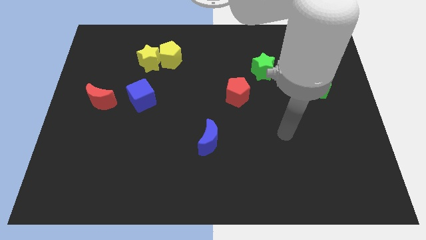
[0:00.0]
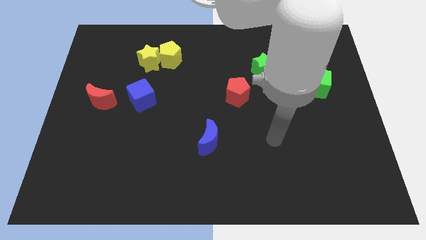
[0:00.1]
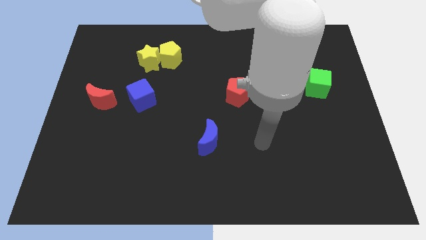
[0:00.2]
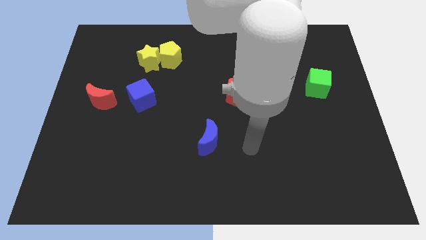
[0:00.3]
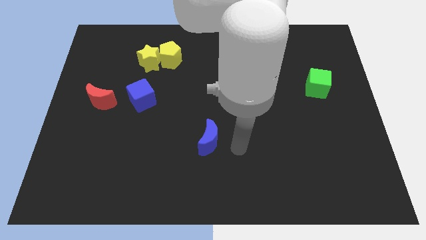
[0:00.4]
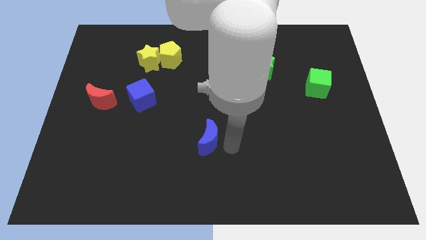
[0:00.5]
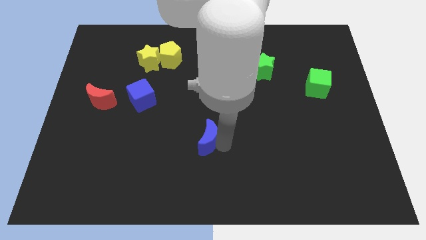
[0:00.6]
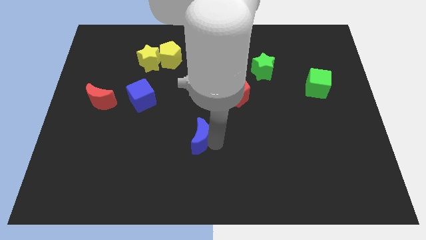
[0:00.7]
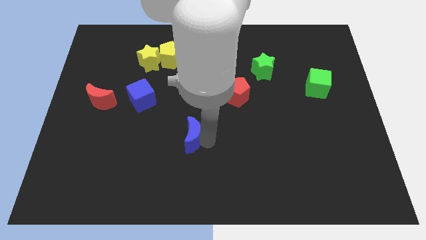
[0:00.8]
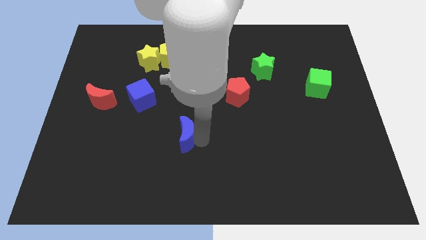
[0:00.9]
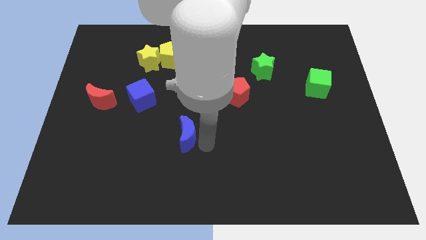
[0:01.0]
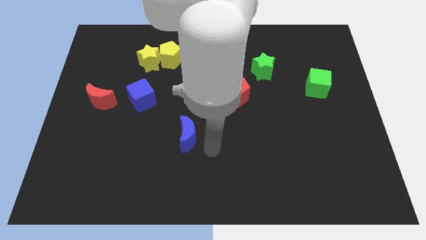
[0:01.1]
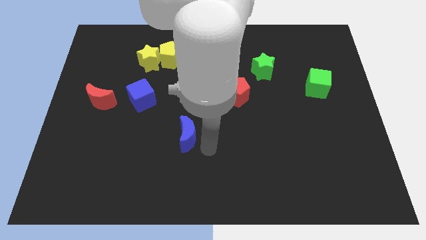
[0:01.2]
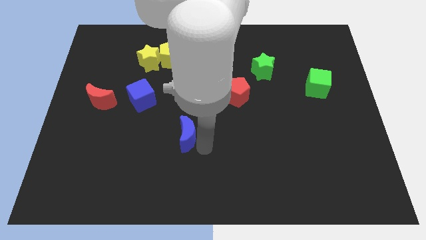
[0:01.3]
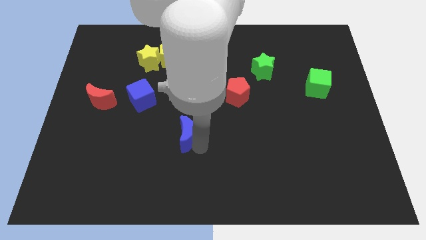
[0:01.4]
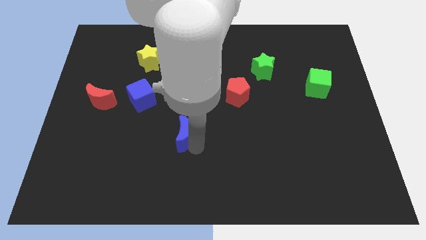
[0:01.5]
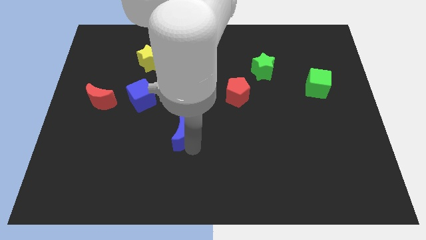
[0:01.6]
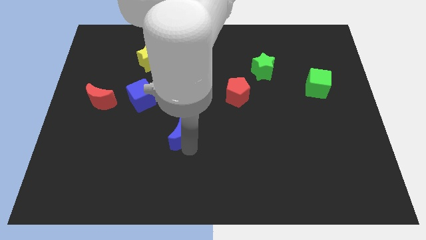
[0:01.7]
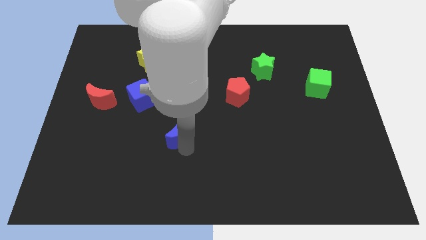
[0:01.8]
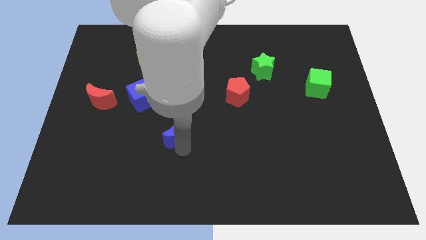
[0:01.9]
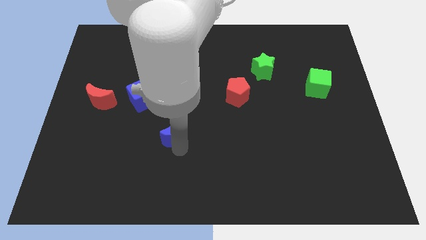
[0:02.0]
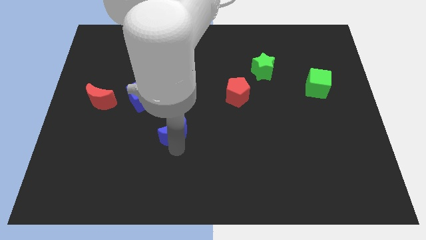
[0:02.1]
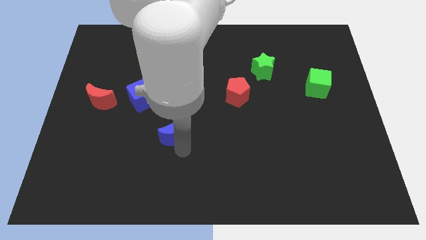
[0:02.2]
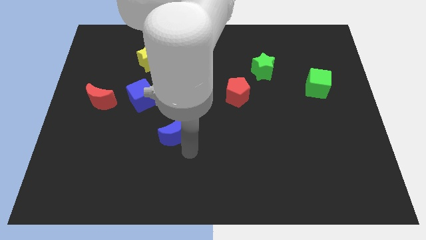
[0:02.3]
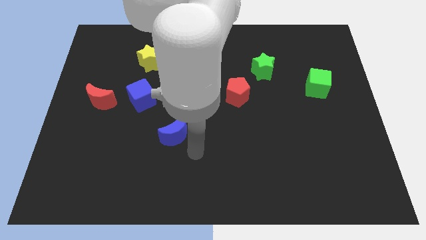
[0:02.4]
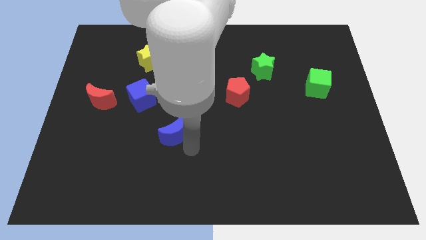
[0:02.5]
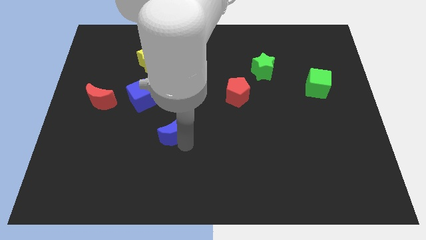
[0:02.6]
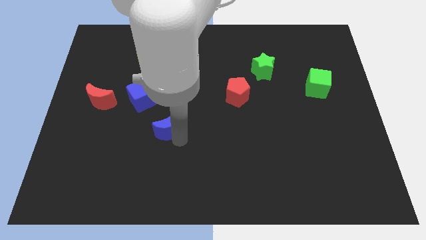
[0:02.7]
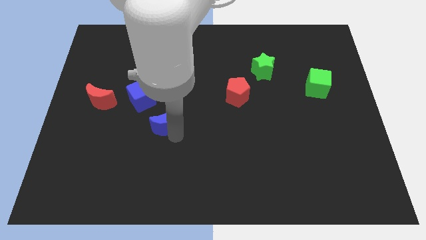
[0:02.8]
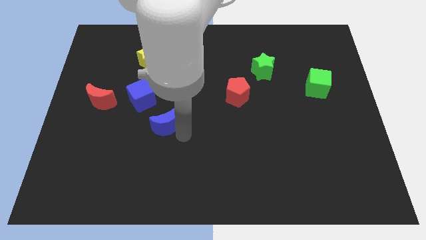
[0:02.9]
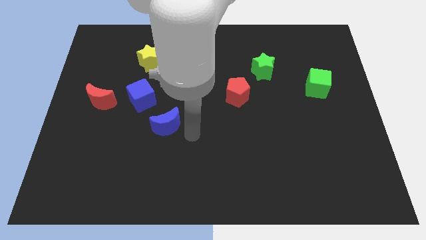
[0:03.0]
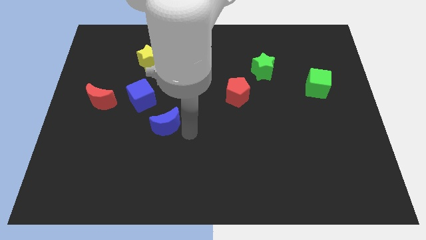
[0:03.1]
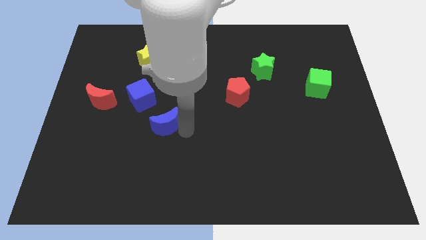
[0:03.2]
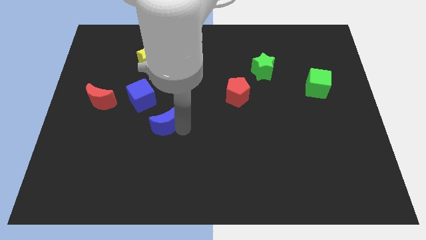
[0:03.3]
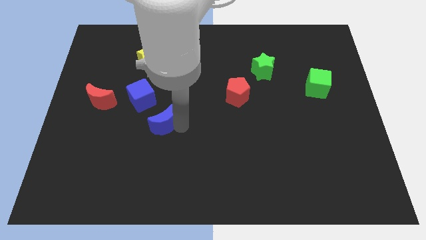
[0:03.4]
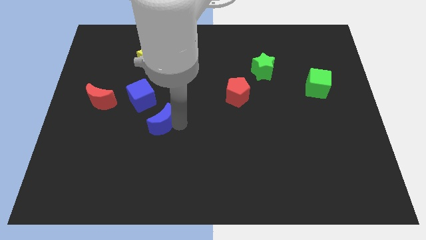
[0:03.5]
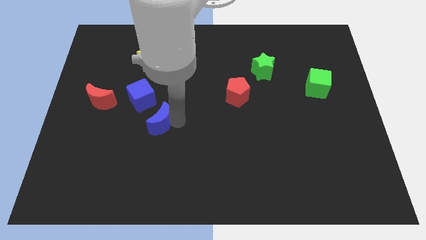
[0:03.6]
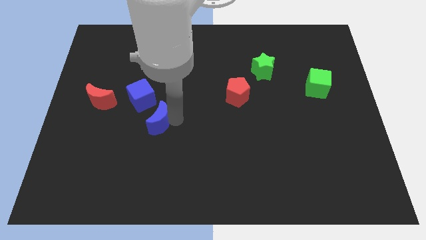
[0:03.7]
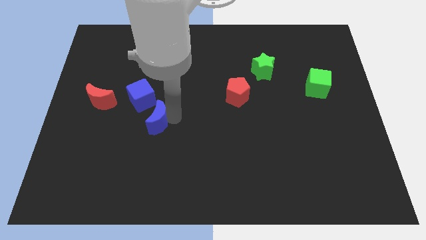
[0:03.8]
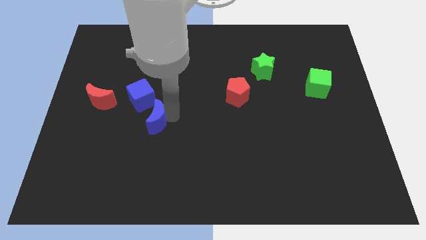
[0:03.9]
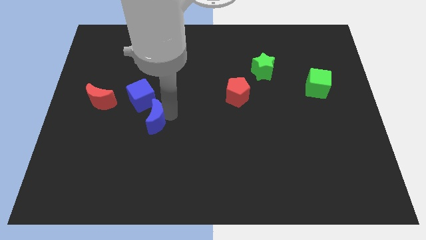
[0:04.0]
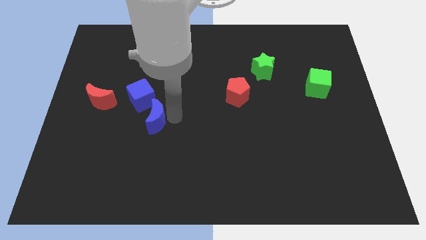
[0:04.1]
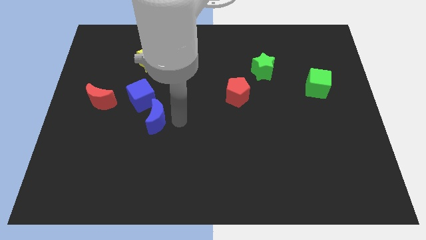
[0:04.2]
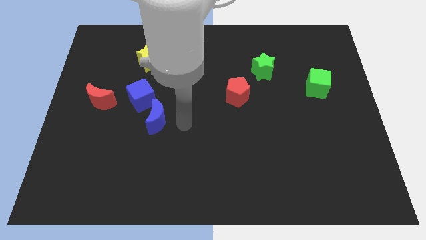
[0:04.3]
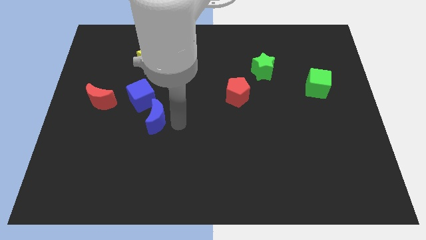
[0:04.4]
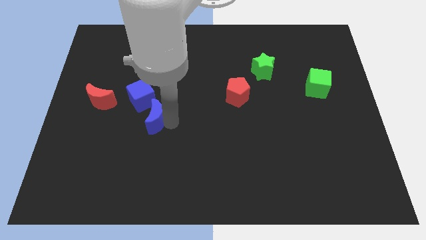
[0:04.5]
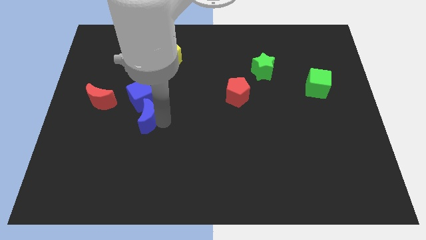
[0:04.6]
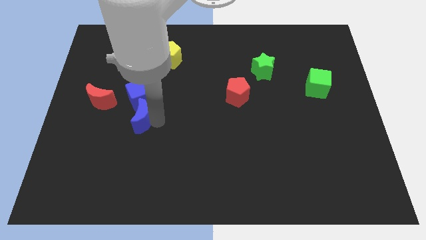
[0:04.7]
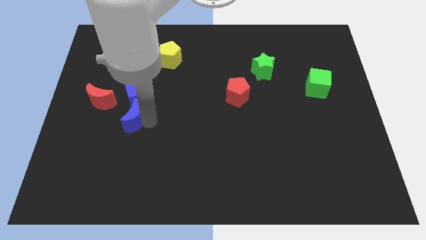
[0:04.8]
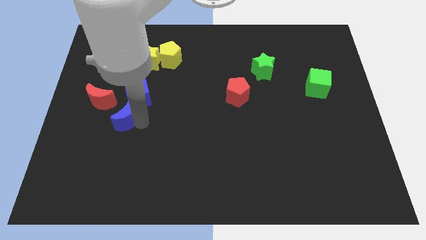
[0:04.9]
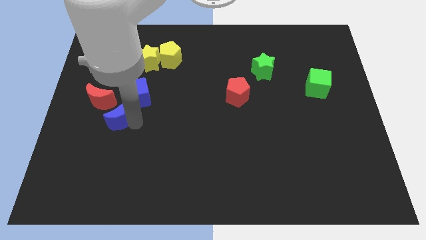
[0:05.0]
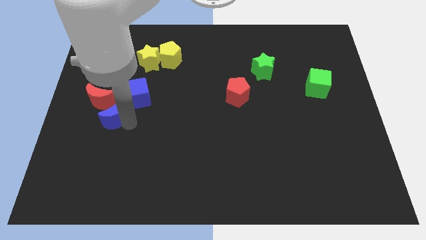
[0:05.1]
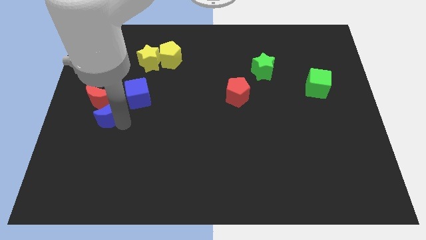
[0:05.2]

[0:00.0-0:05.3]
move the blue moon to the red moon

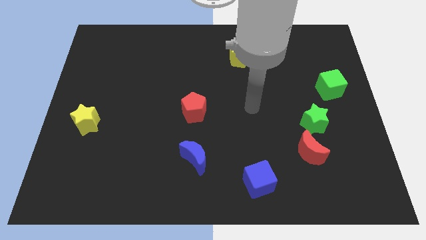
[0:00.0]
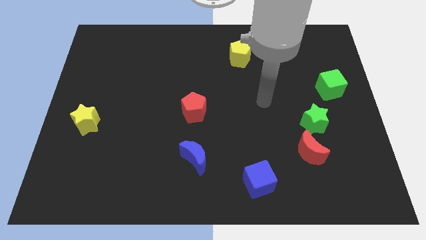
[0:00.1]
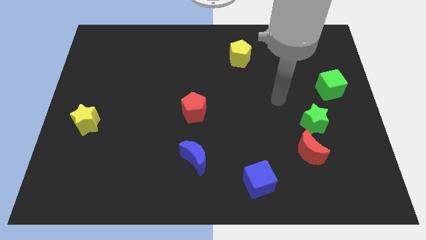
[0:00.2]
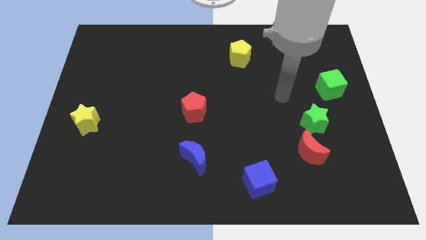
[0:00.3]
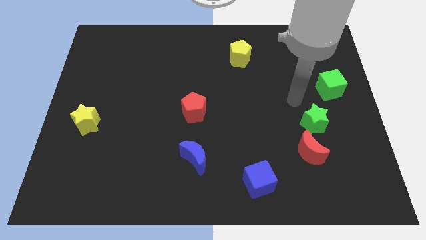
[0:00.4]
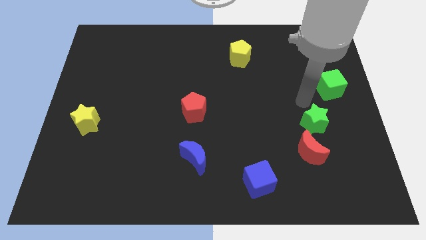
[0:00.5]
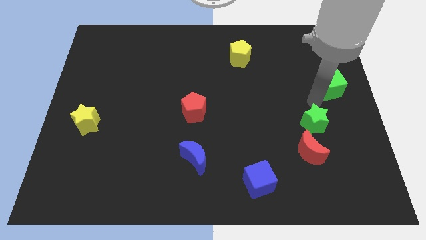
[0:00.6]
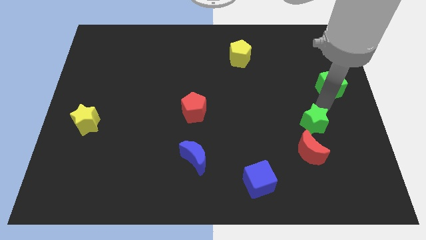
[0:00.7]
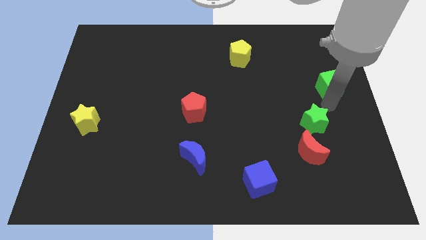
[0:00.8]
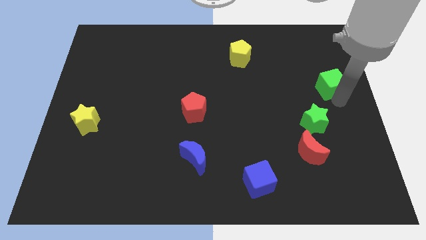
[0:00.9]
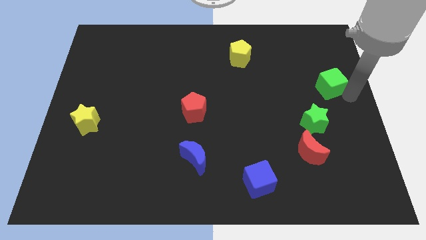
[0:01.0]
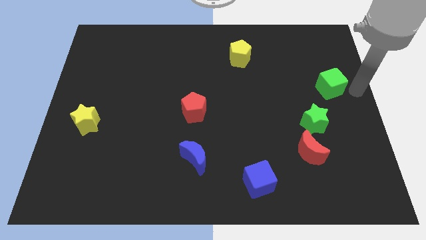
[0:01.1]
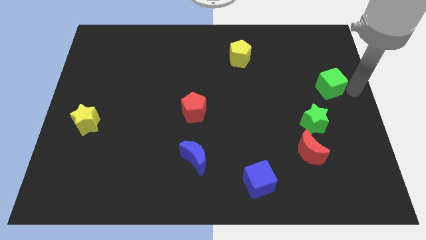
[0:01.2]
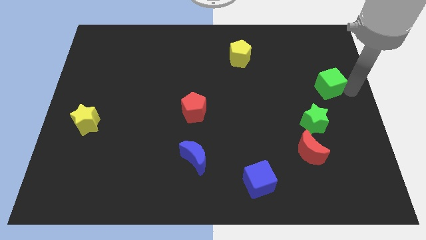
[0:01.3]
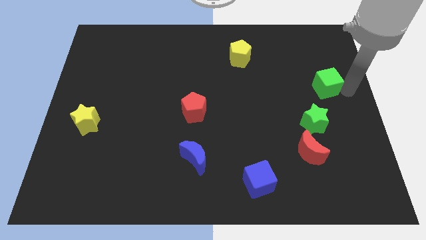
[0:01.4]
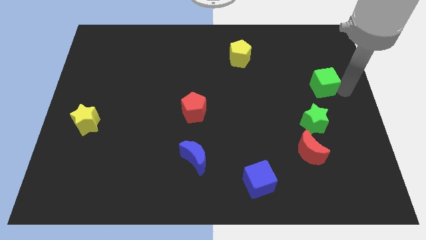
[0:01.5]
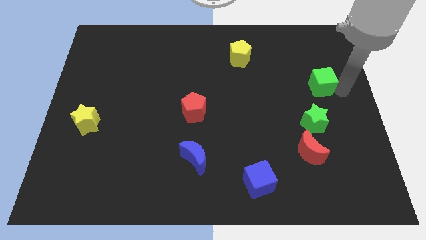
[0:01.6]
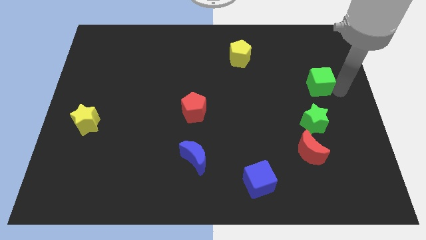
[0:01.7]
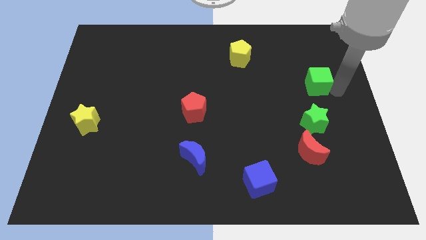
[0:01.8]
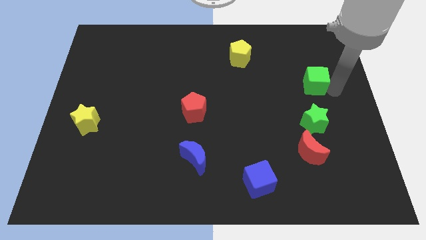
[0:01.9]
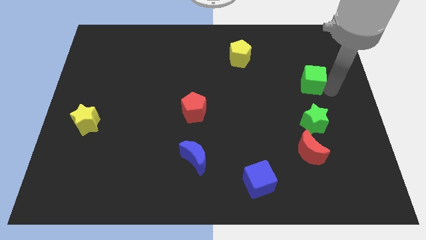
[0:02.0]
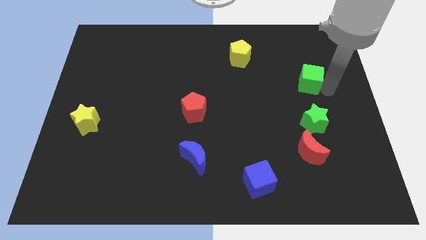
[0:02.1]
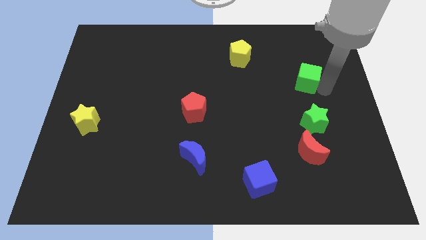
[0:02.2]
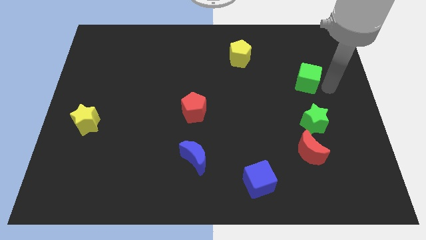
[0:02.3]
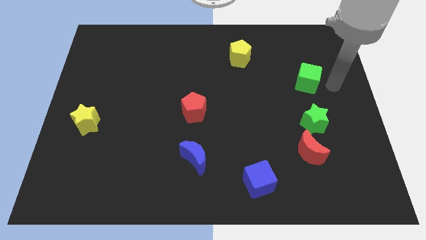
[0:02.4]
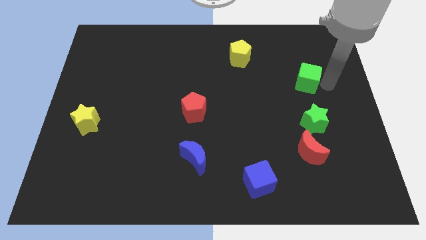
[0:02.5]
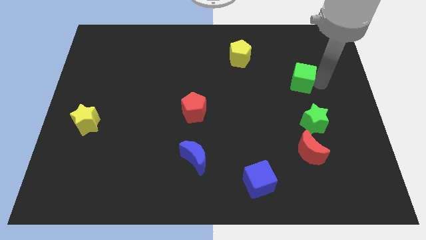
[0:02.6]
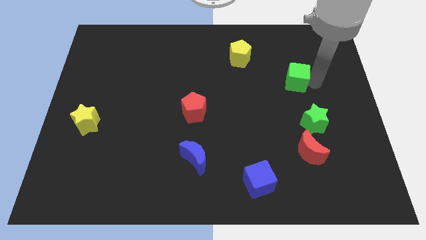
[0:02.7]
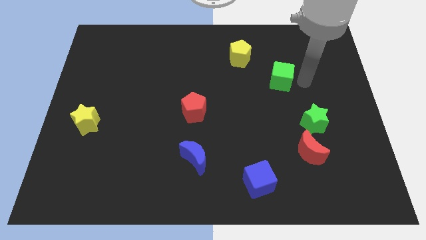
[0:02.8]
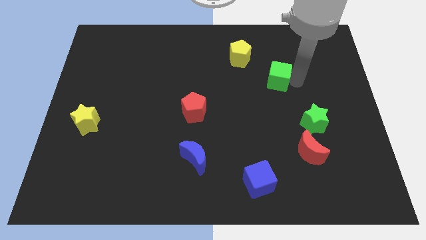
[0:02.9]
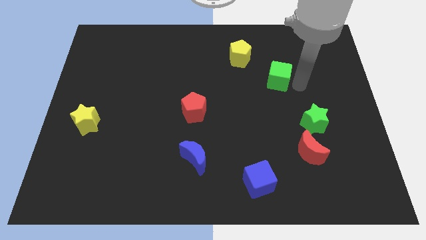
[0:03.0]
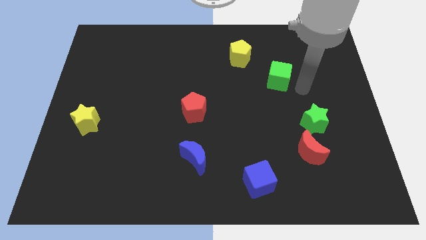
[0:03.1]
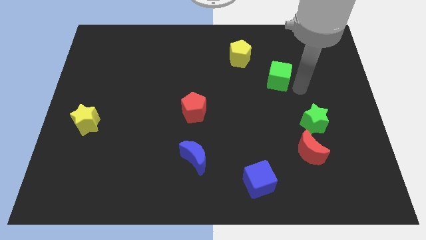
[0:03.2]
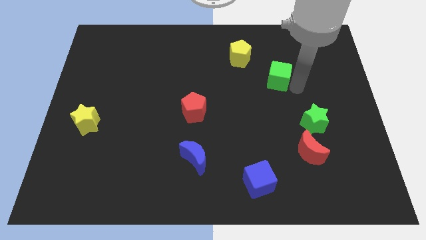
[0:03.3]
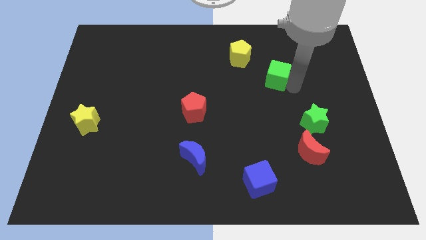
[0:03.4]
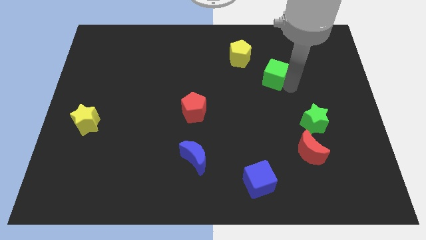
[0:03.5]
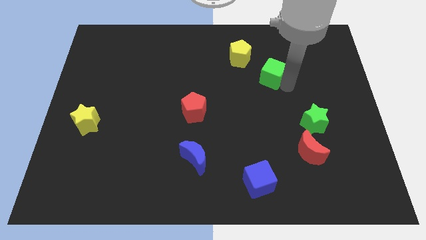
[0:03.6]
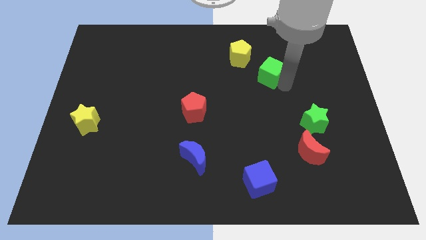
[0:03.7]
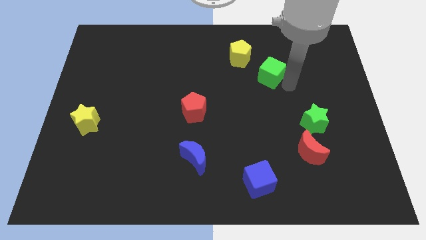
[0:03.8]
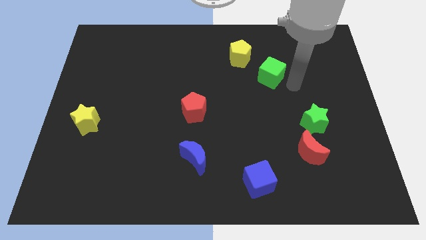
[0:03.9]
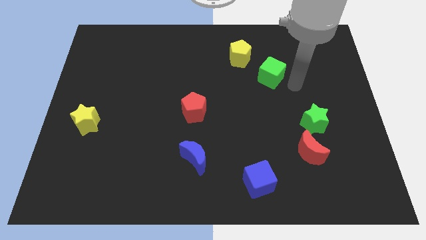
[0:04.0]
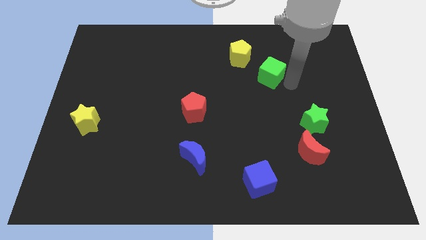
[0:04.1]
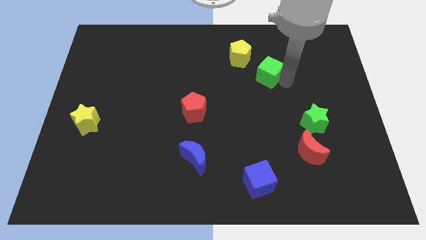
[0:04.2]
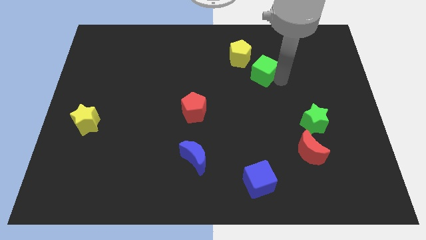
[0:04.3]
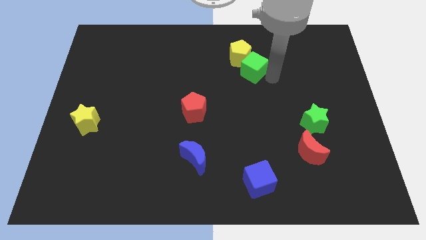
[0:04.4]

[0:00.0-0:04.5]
put the green cube to the yellow pentagon
